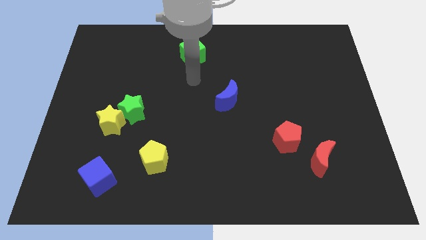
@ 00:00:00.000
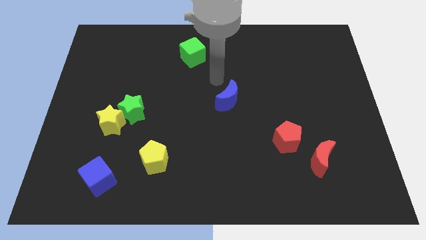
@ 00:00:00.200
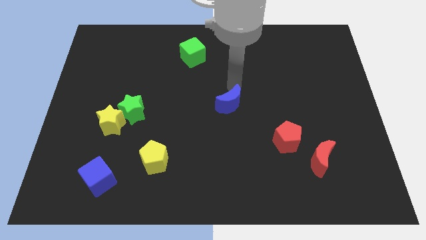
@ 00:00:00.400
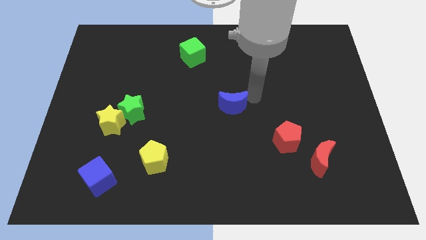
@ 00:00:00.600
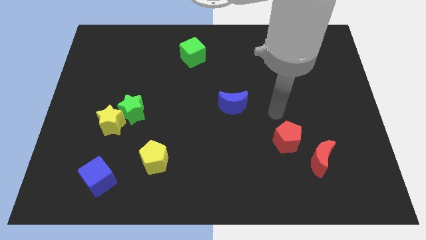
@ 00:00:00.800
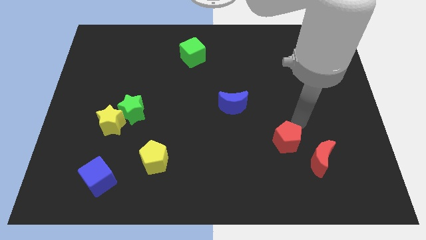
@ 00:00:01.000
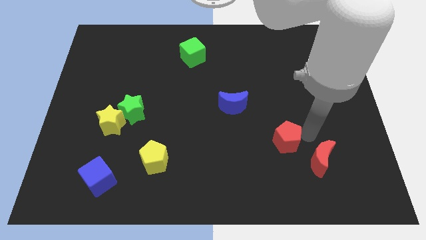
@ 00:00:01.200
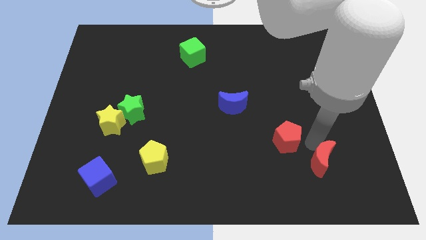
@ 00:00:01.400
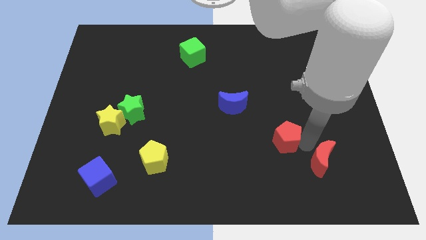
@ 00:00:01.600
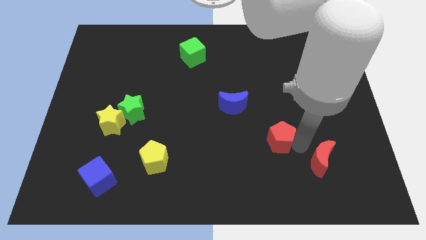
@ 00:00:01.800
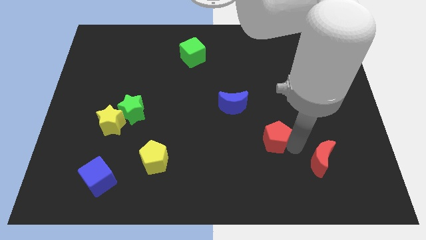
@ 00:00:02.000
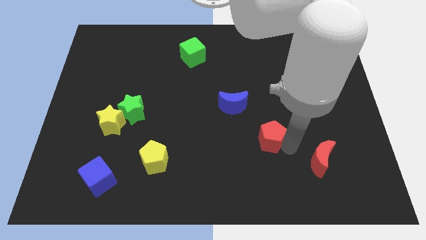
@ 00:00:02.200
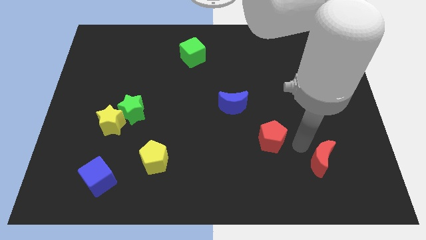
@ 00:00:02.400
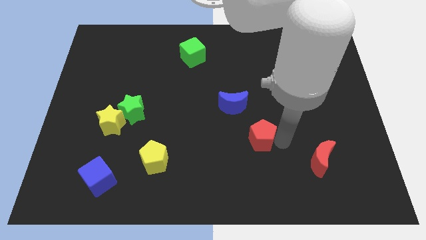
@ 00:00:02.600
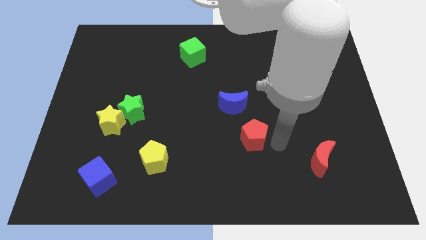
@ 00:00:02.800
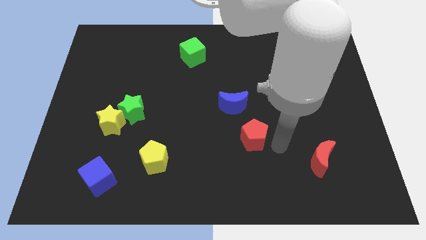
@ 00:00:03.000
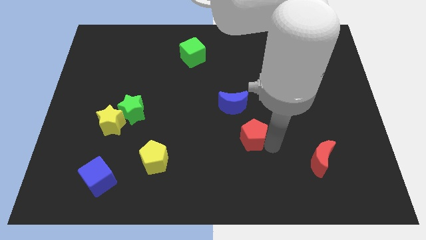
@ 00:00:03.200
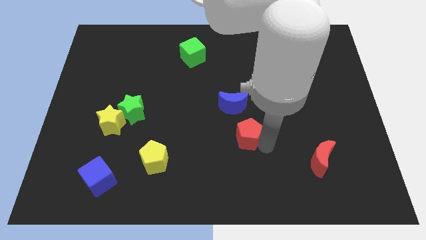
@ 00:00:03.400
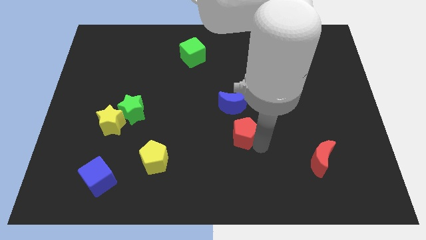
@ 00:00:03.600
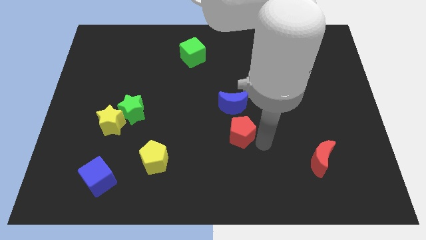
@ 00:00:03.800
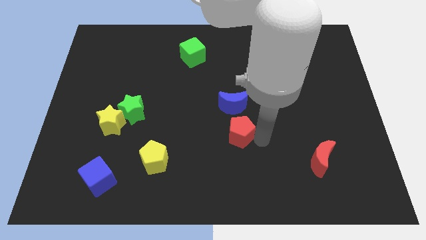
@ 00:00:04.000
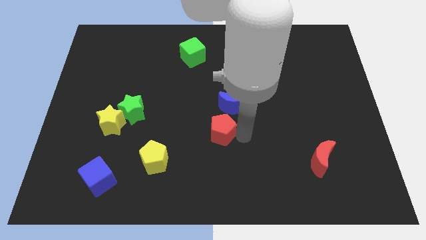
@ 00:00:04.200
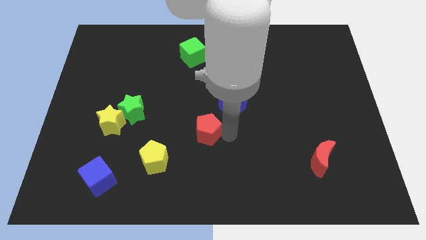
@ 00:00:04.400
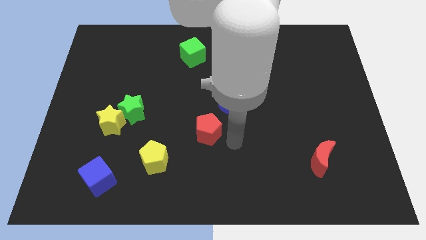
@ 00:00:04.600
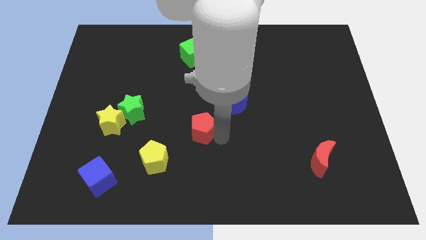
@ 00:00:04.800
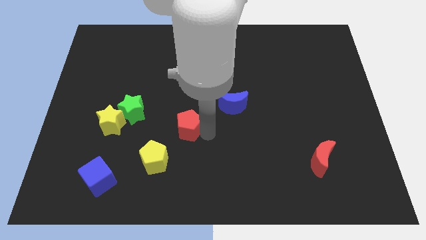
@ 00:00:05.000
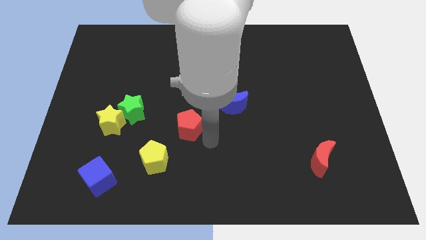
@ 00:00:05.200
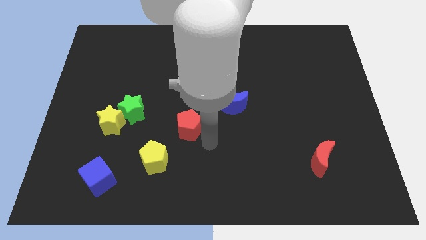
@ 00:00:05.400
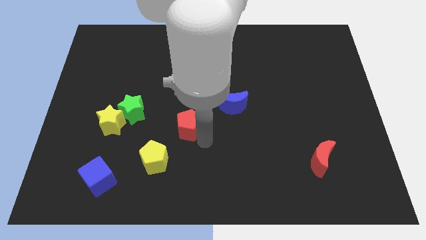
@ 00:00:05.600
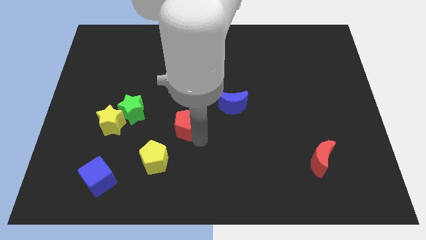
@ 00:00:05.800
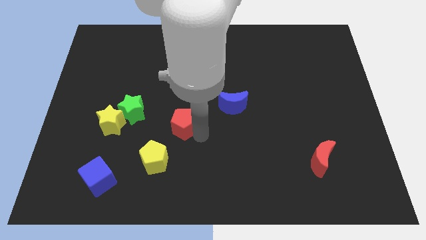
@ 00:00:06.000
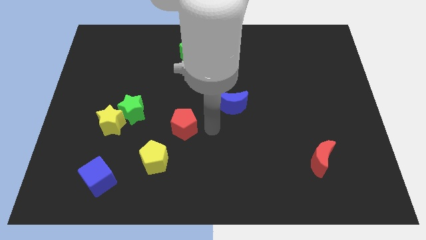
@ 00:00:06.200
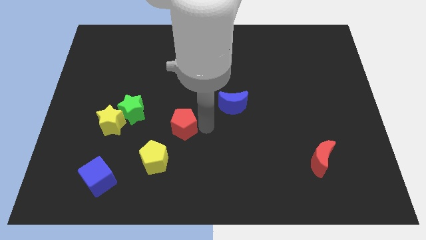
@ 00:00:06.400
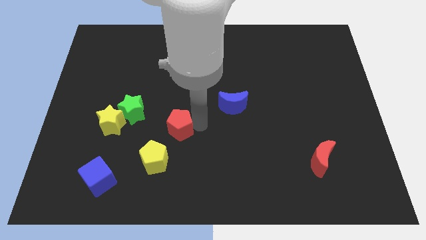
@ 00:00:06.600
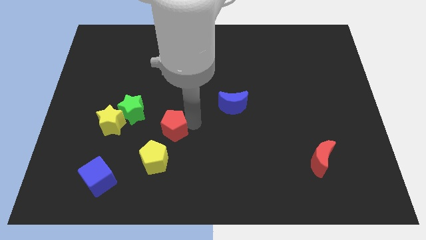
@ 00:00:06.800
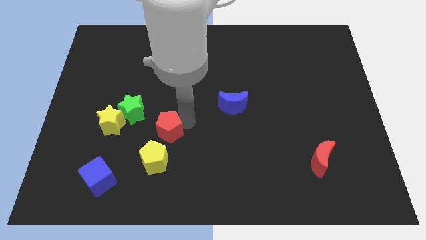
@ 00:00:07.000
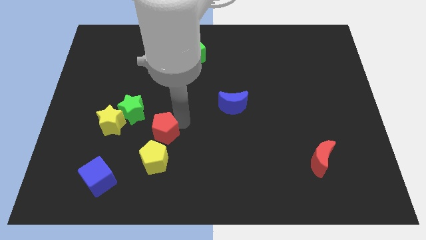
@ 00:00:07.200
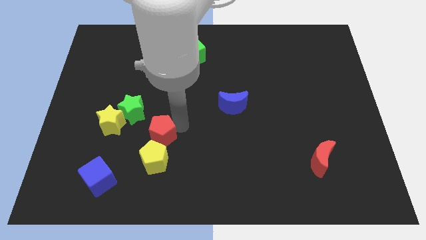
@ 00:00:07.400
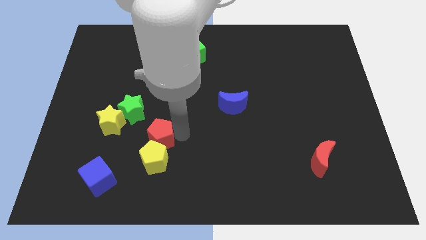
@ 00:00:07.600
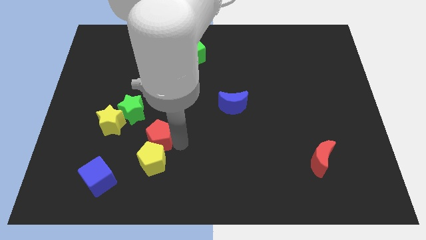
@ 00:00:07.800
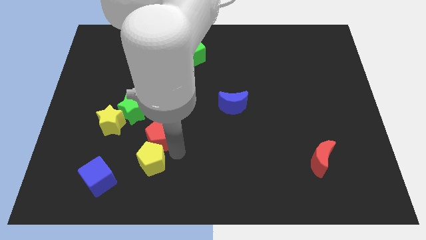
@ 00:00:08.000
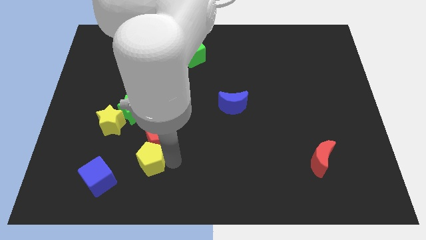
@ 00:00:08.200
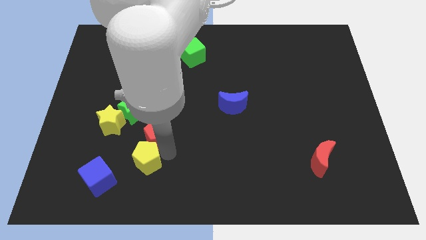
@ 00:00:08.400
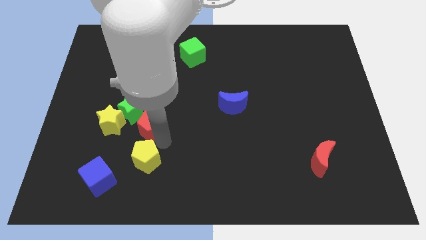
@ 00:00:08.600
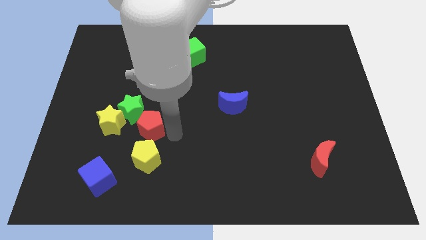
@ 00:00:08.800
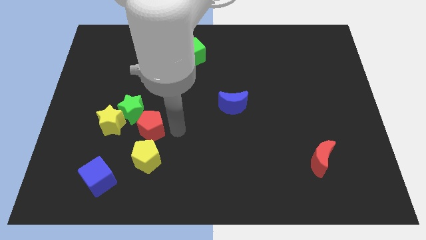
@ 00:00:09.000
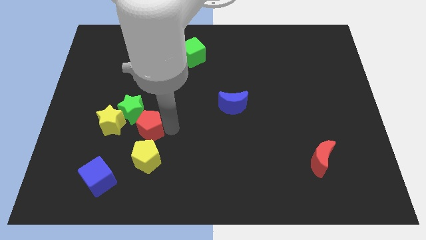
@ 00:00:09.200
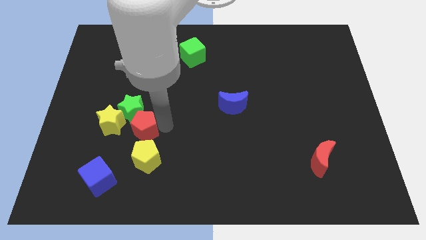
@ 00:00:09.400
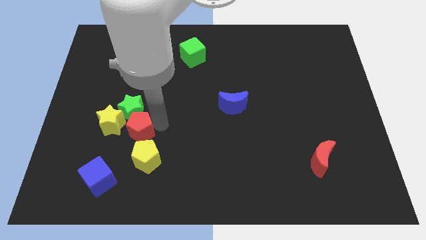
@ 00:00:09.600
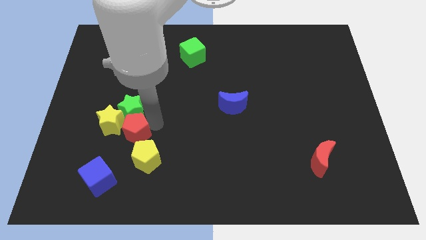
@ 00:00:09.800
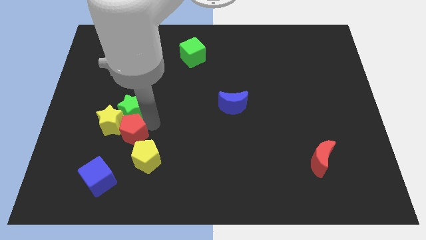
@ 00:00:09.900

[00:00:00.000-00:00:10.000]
slide the red pentagon next to the yellow star
